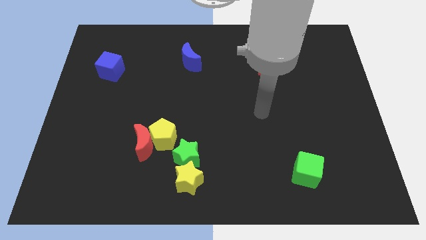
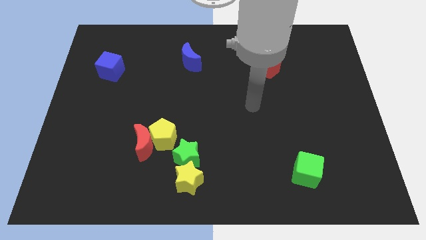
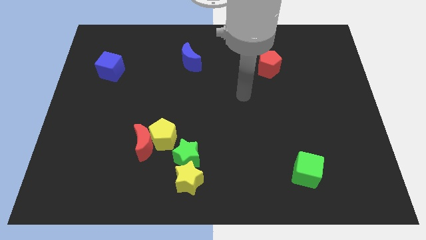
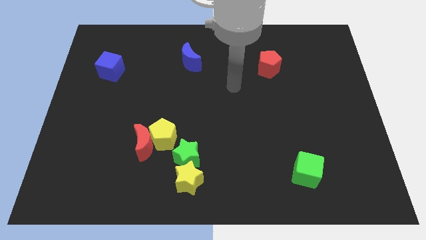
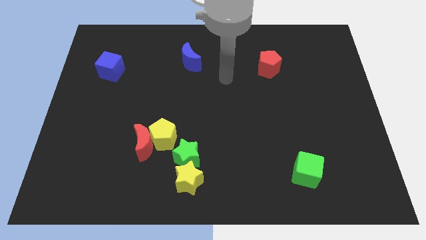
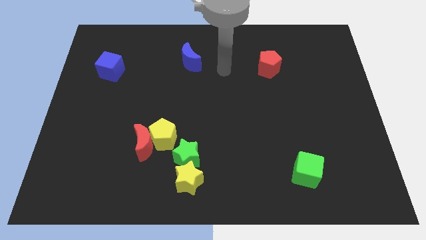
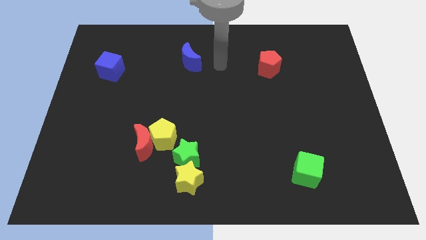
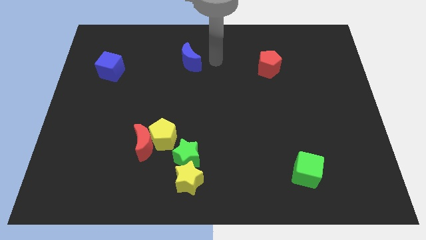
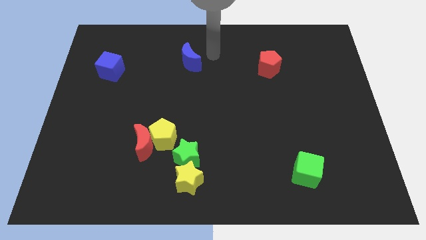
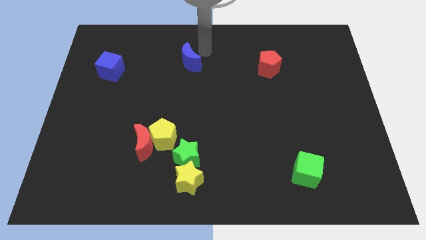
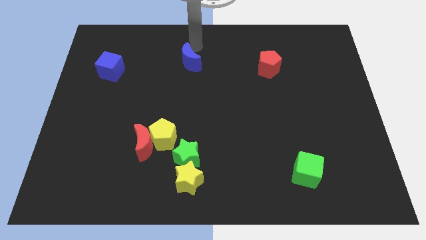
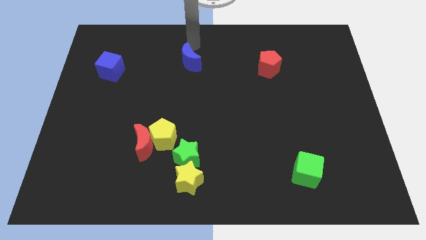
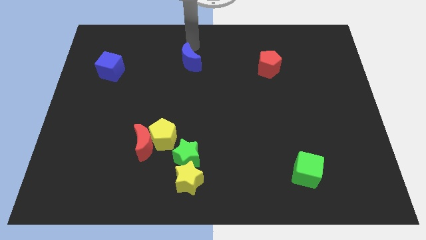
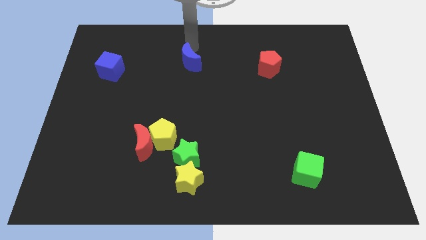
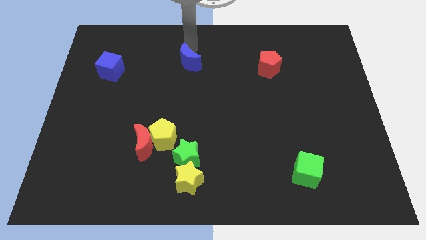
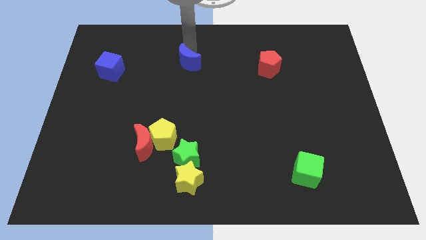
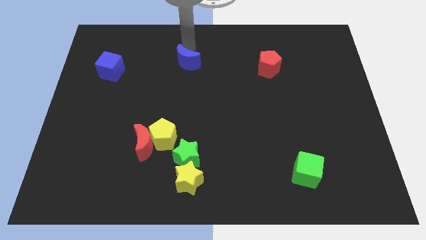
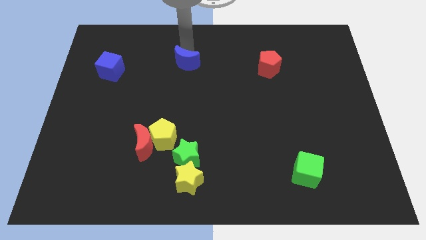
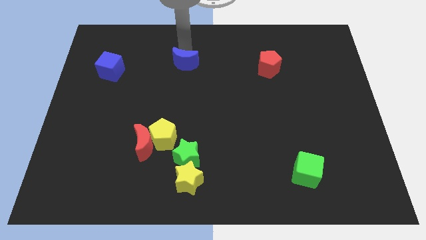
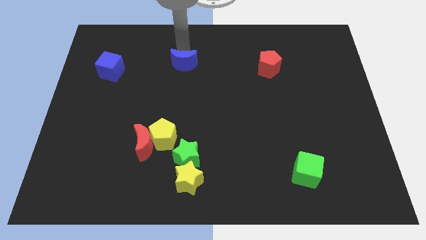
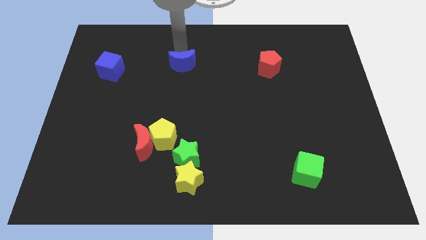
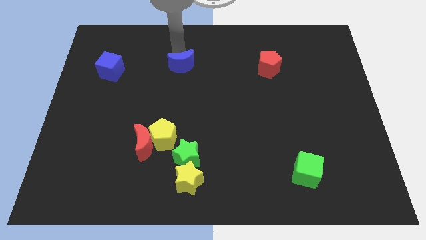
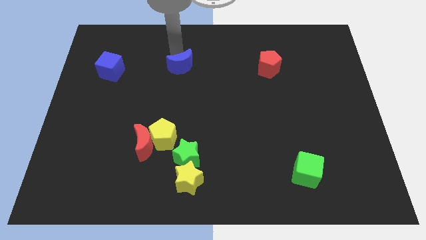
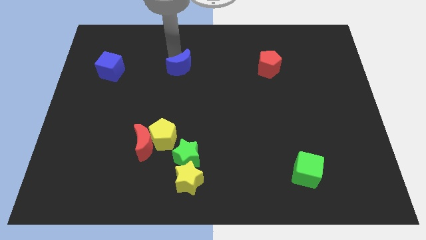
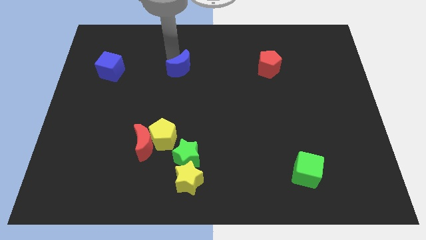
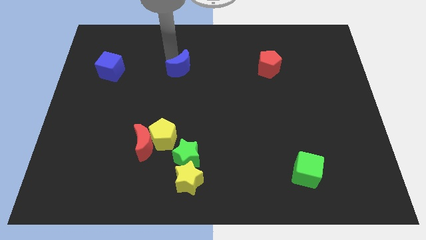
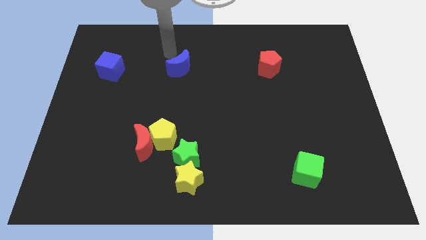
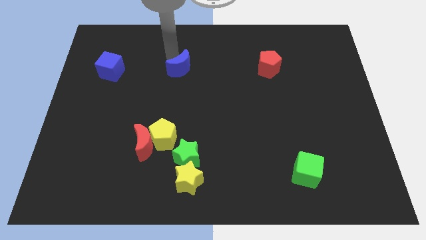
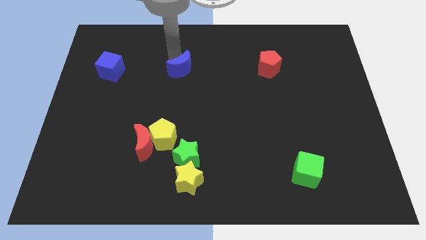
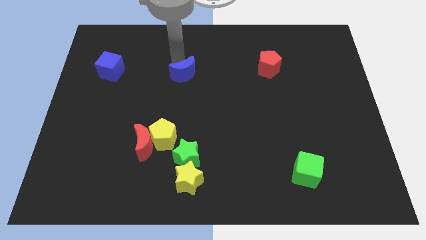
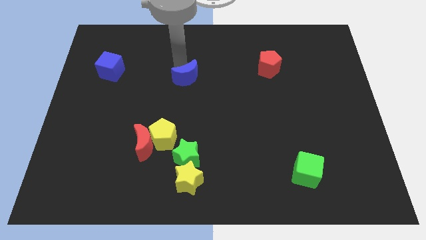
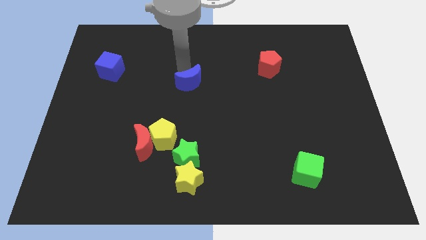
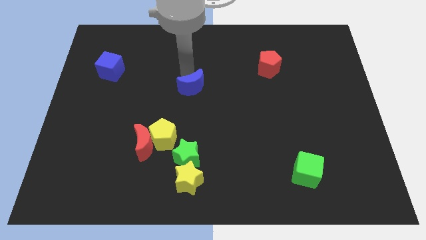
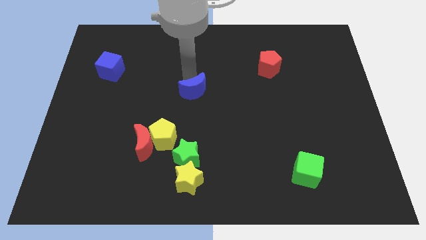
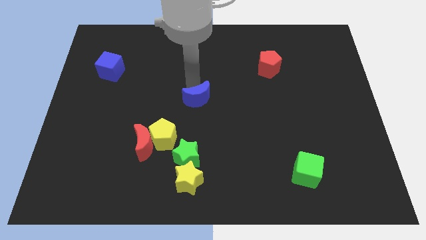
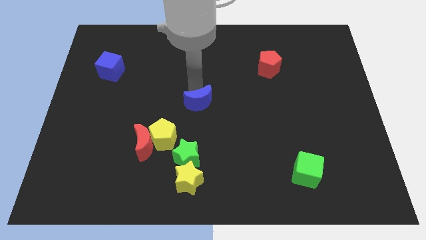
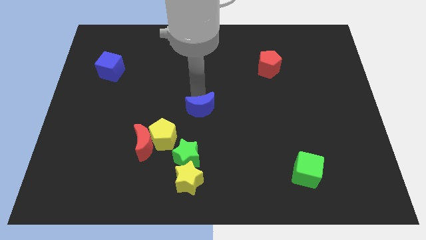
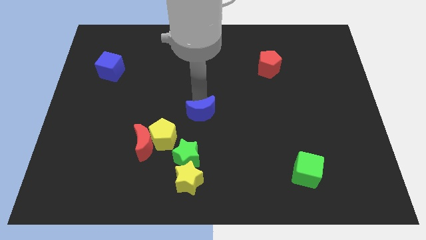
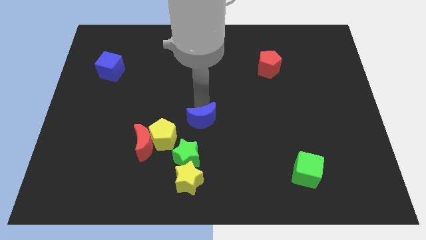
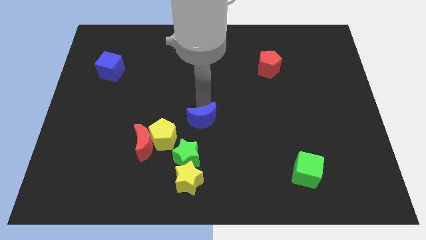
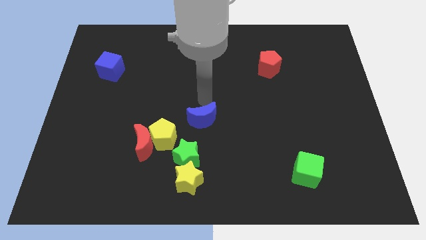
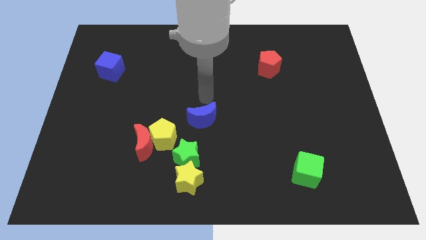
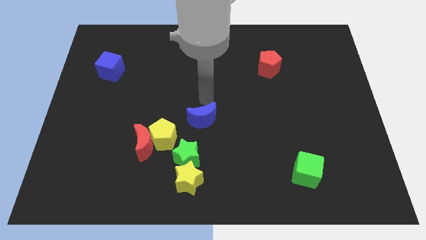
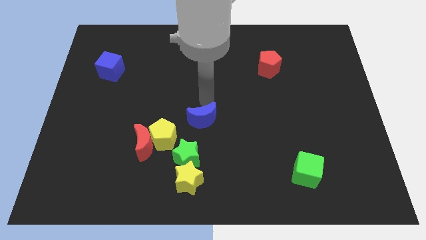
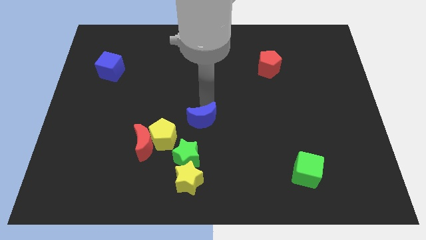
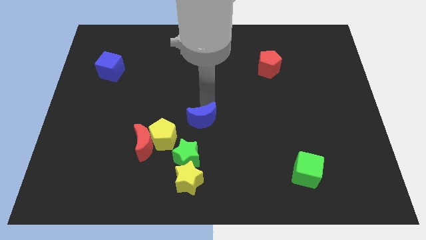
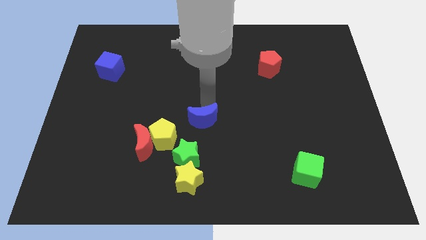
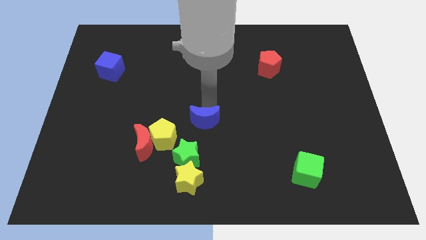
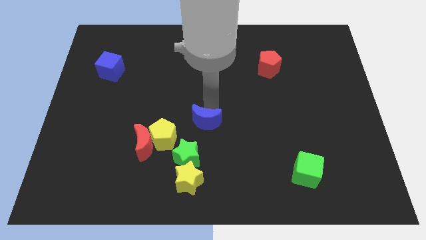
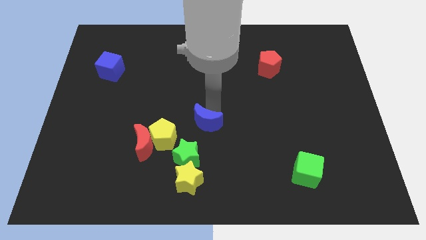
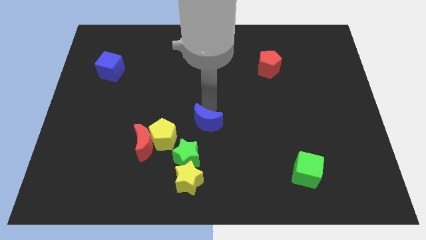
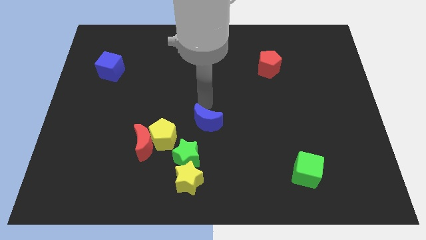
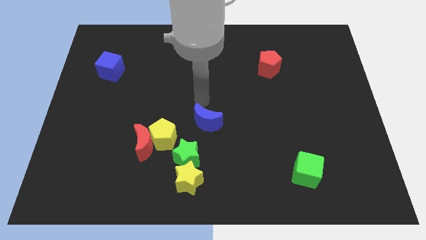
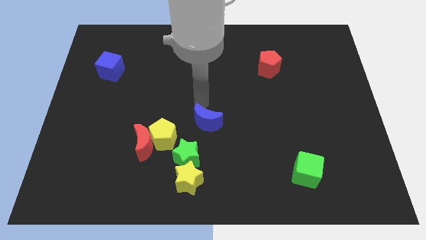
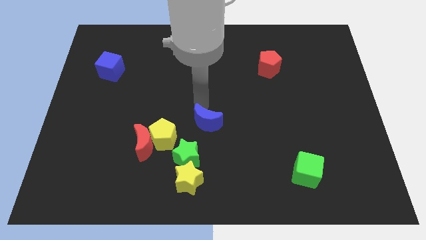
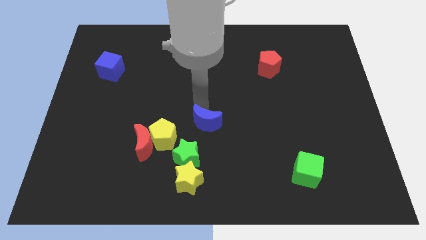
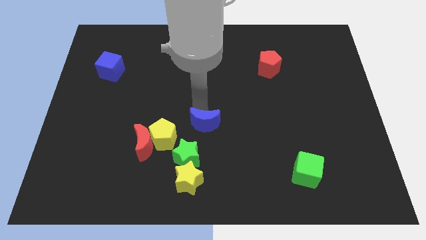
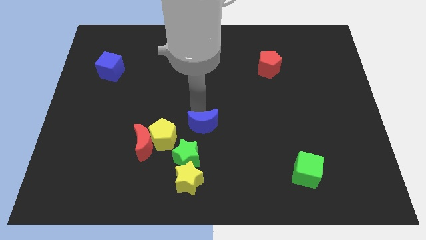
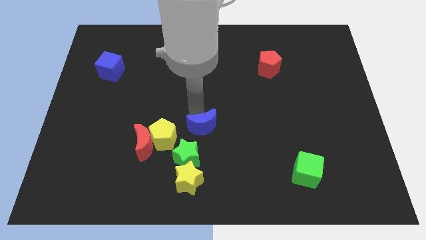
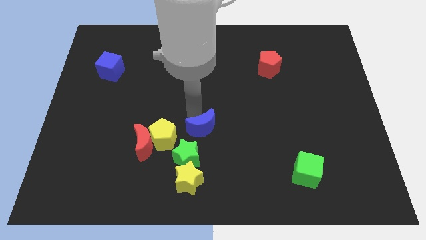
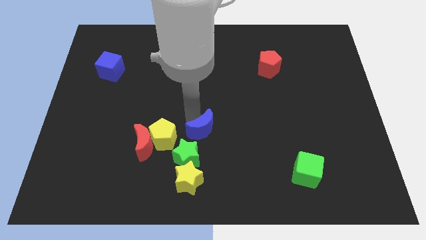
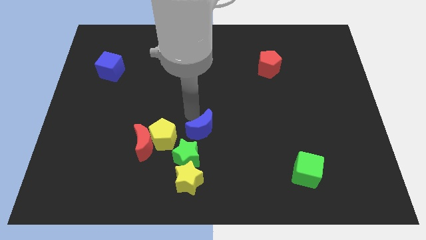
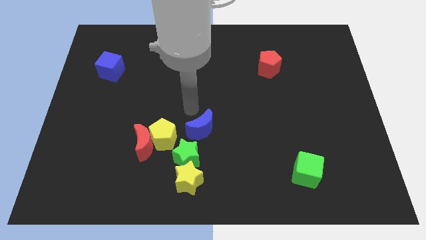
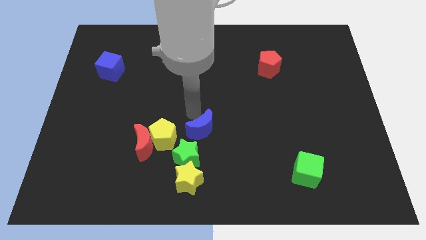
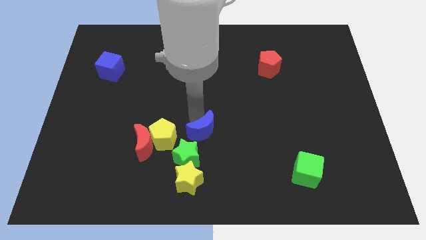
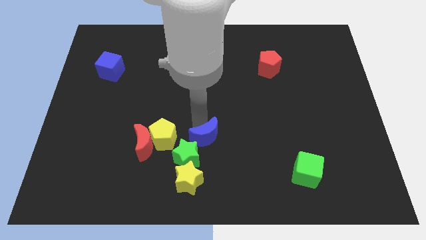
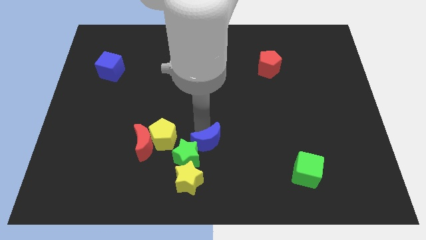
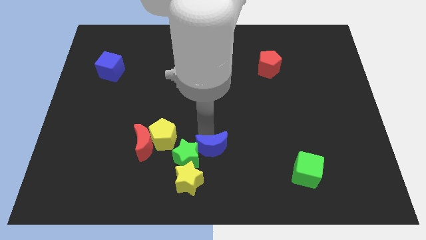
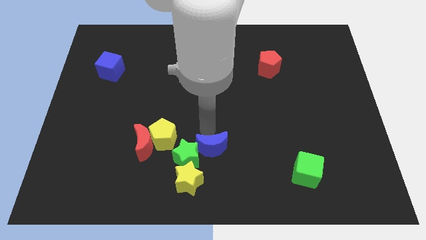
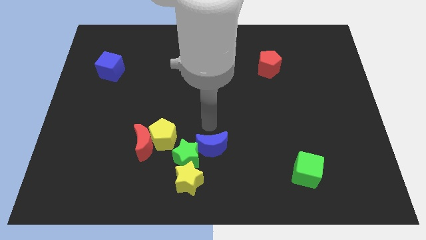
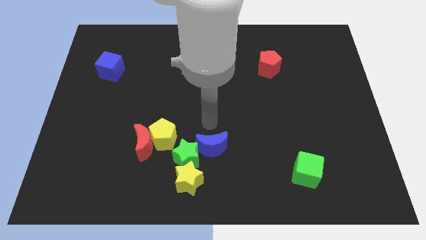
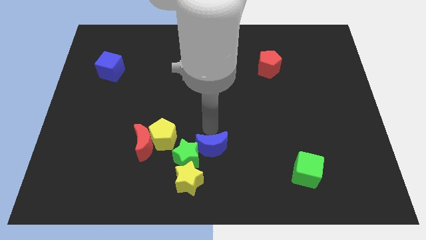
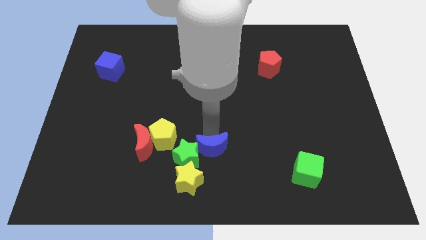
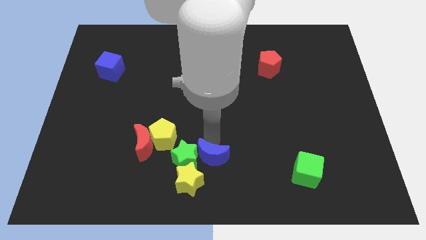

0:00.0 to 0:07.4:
push the blue moon to the bottom

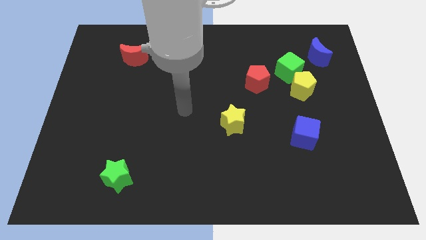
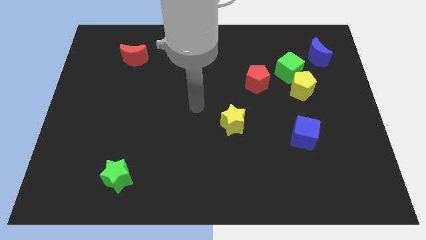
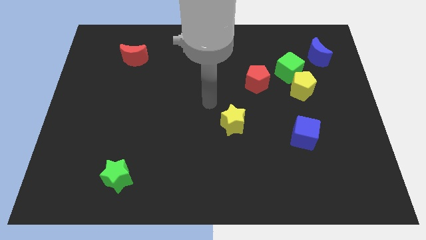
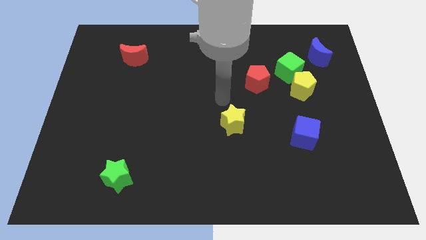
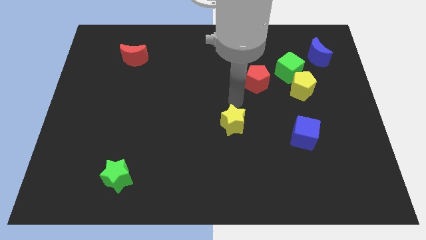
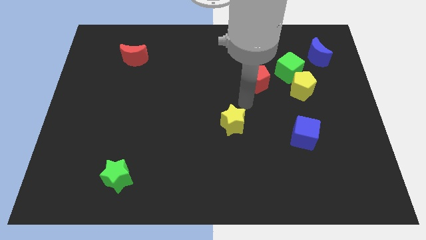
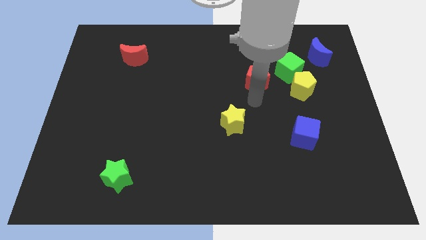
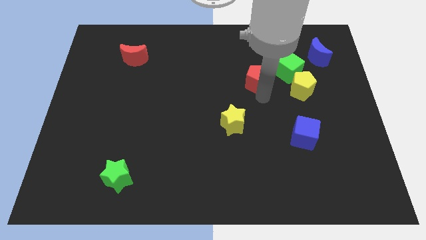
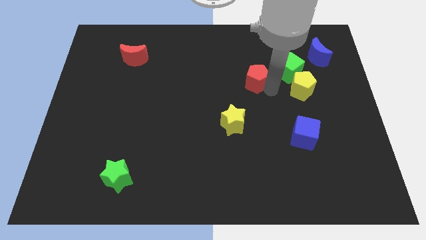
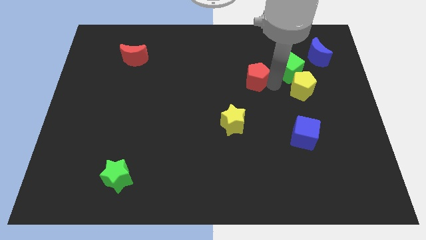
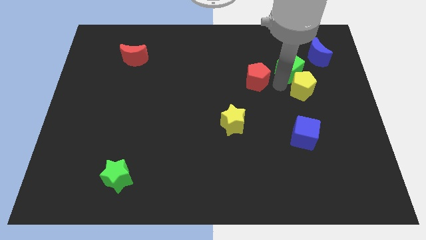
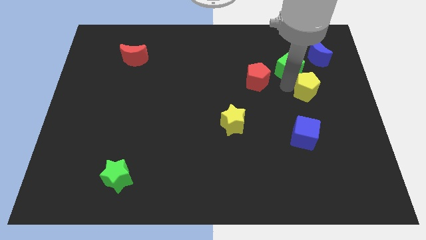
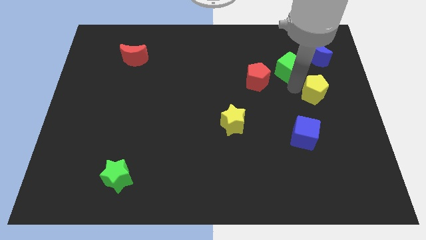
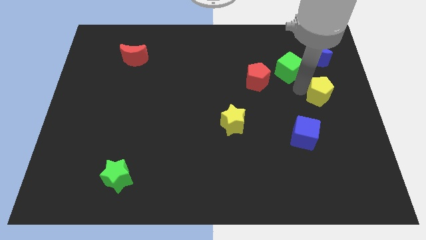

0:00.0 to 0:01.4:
slide the yellow pentagon to the center right
